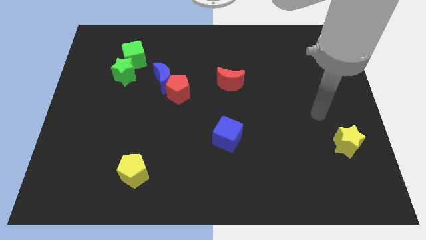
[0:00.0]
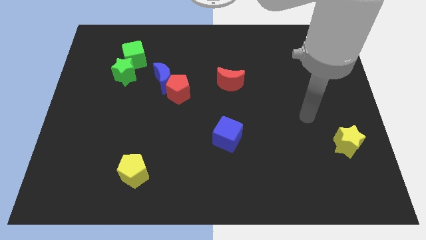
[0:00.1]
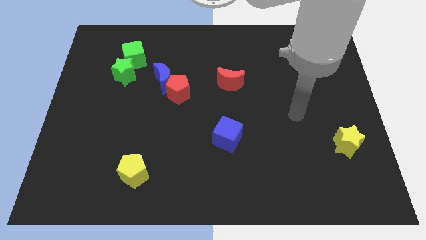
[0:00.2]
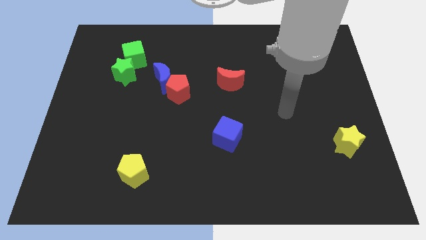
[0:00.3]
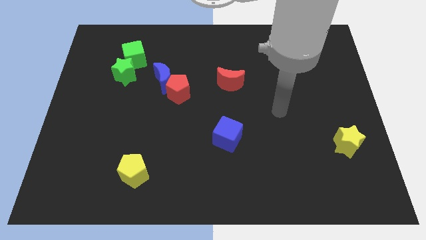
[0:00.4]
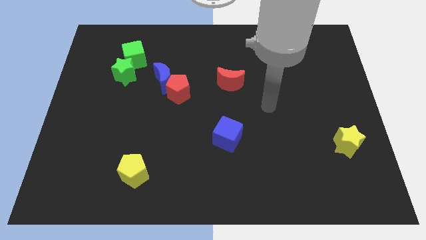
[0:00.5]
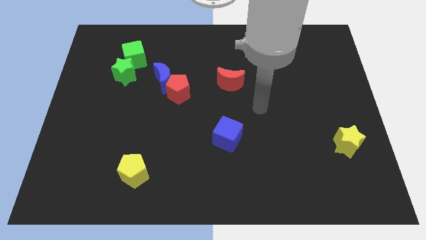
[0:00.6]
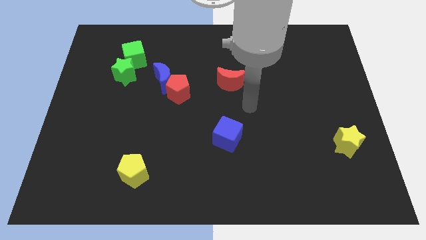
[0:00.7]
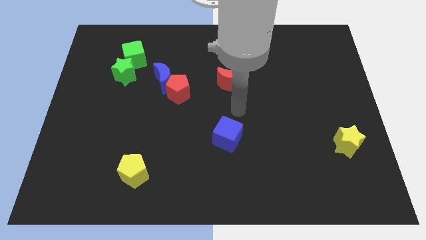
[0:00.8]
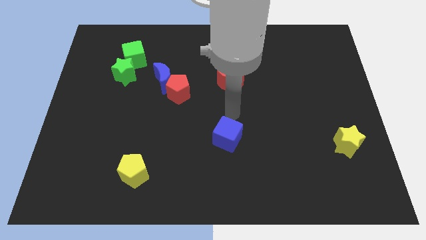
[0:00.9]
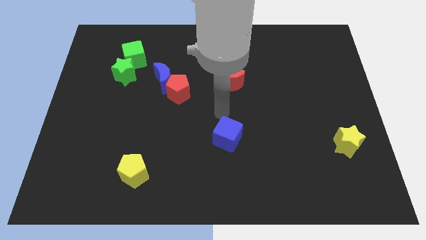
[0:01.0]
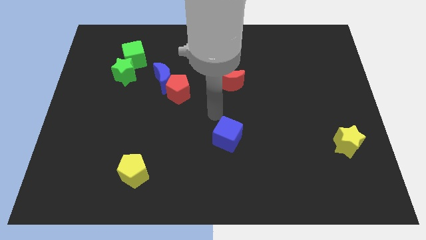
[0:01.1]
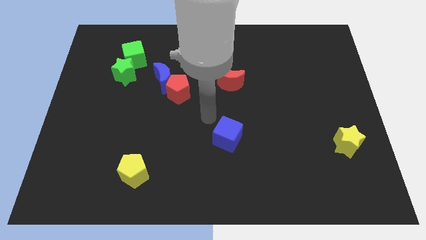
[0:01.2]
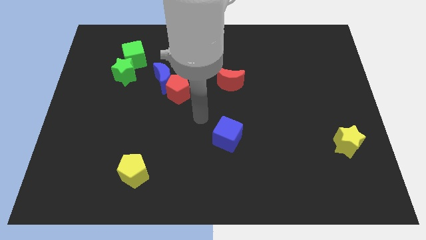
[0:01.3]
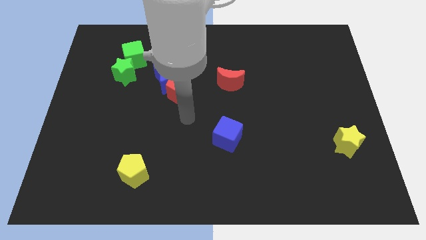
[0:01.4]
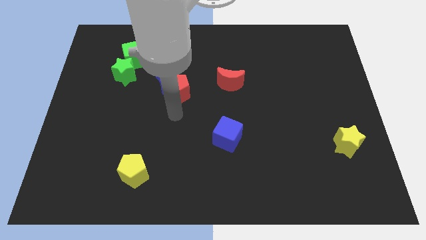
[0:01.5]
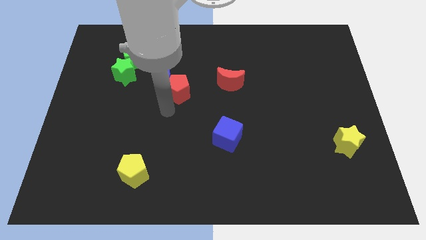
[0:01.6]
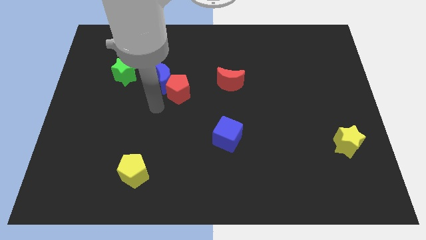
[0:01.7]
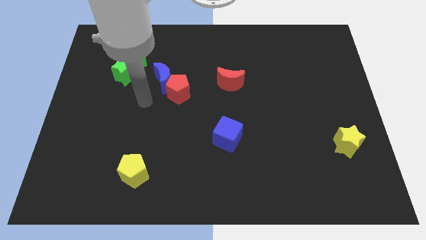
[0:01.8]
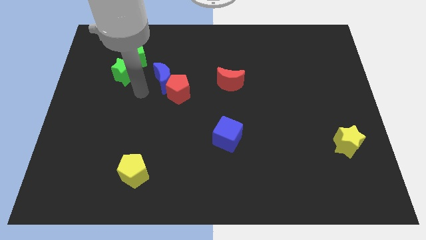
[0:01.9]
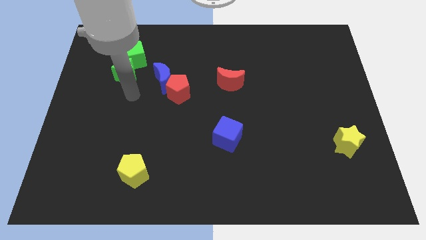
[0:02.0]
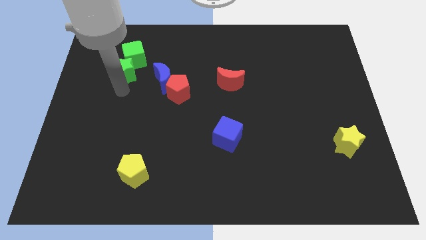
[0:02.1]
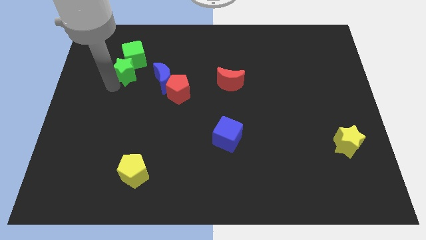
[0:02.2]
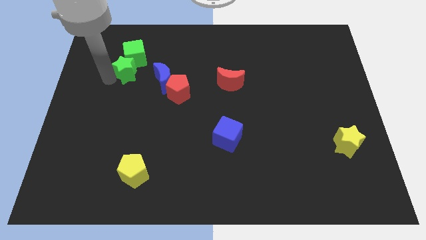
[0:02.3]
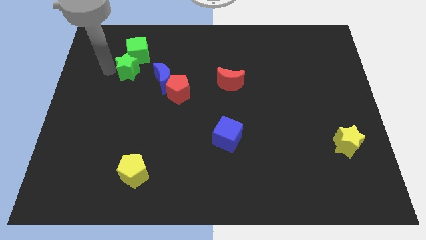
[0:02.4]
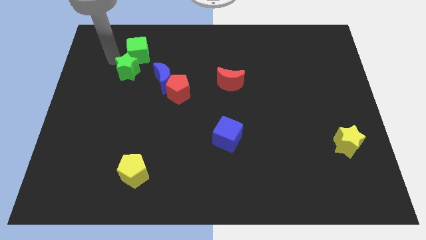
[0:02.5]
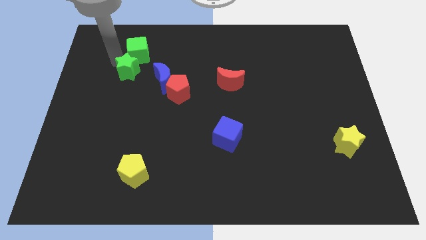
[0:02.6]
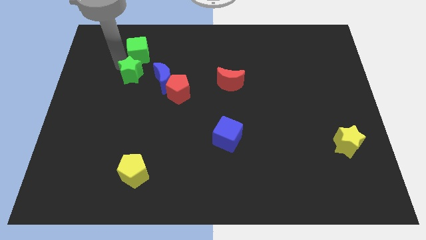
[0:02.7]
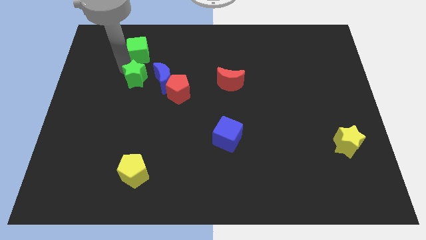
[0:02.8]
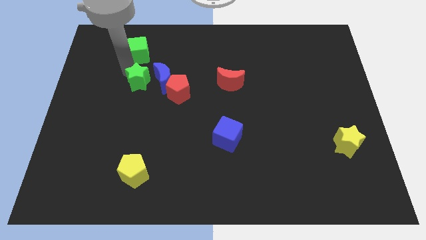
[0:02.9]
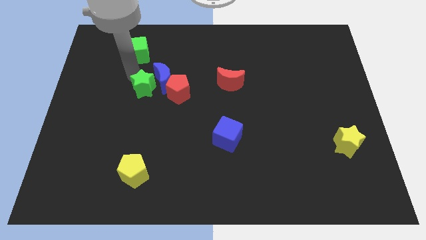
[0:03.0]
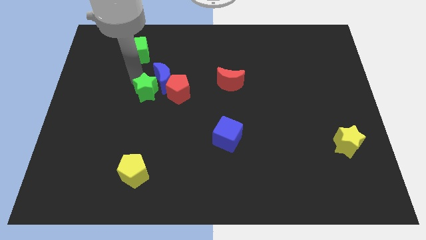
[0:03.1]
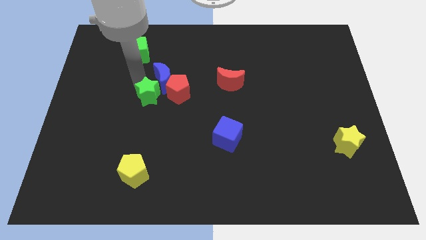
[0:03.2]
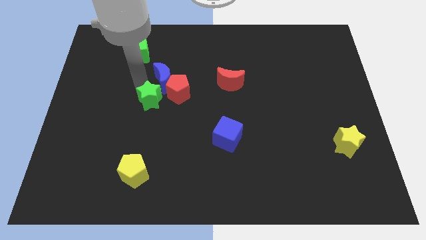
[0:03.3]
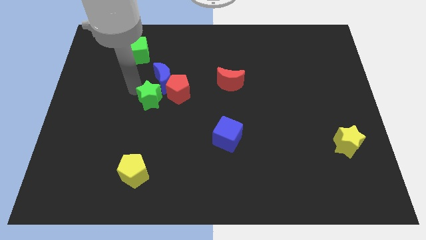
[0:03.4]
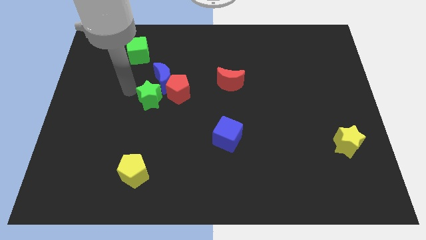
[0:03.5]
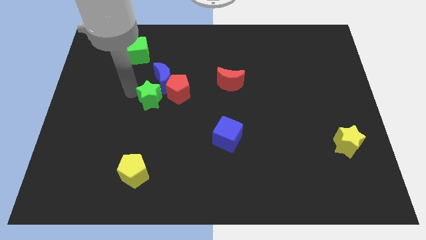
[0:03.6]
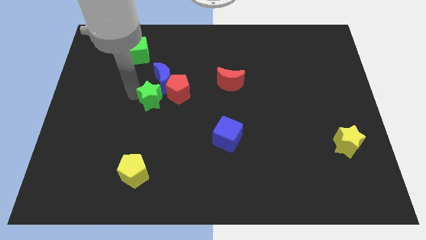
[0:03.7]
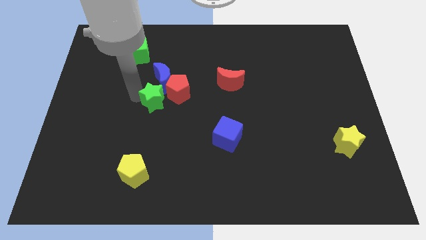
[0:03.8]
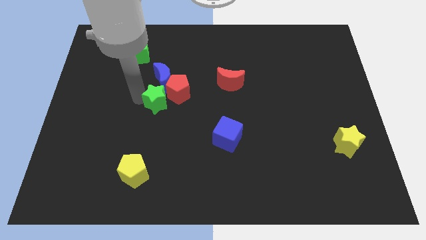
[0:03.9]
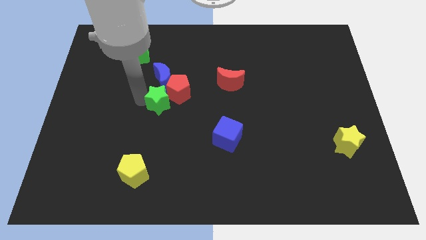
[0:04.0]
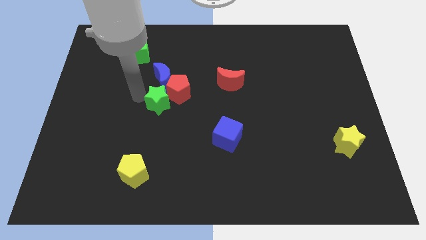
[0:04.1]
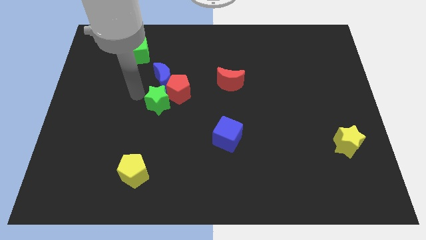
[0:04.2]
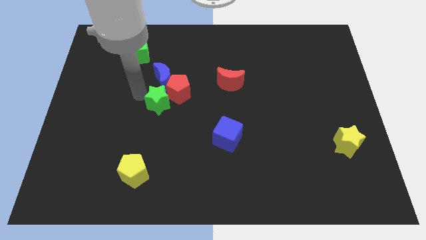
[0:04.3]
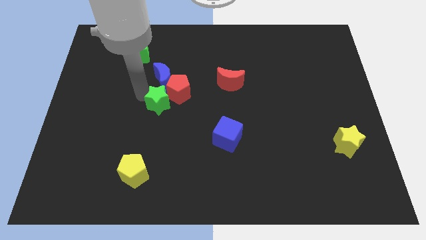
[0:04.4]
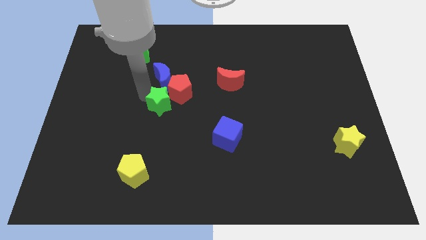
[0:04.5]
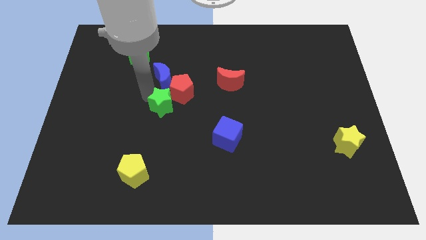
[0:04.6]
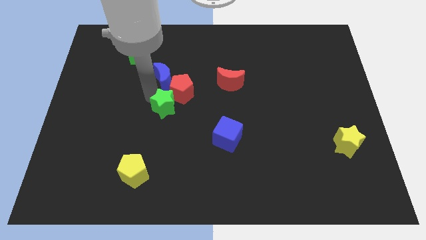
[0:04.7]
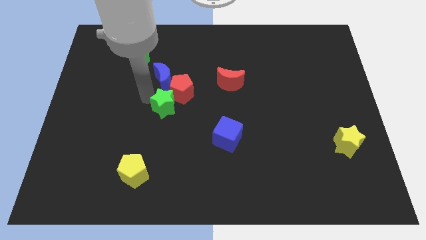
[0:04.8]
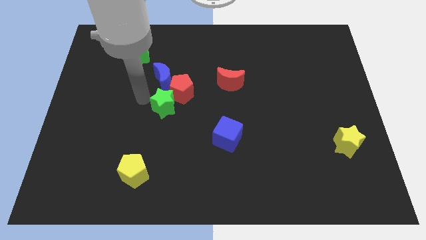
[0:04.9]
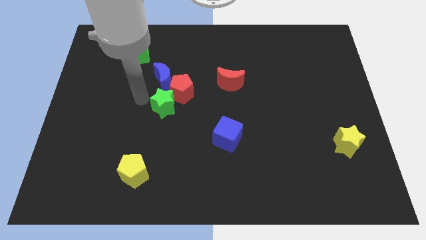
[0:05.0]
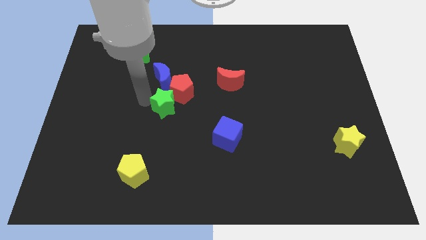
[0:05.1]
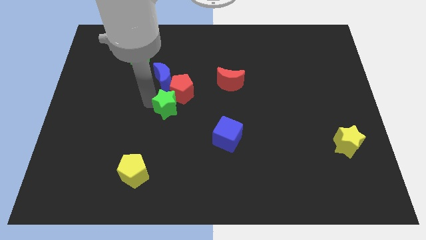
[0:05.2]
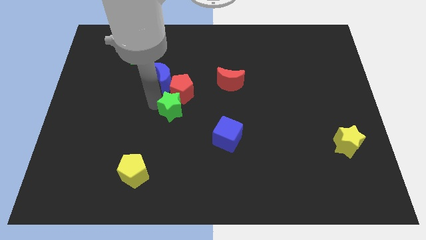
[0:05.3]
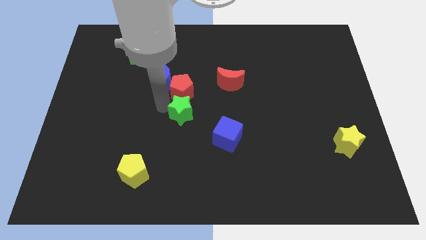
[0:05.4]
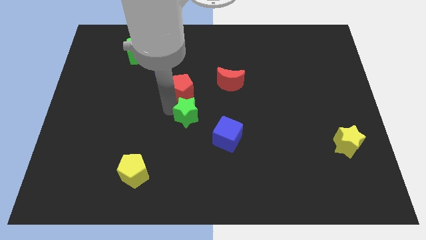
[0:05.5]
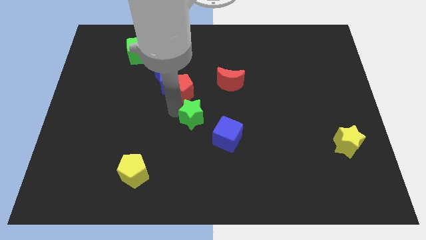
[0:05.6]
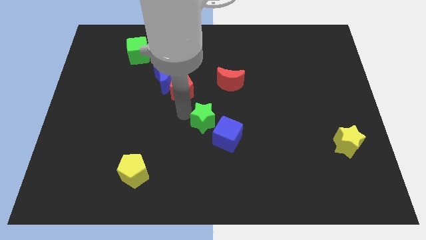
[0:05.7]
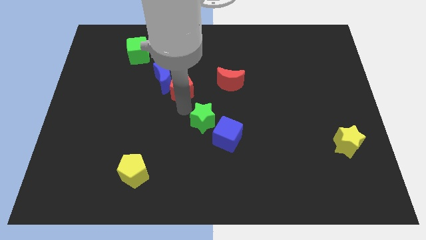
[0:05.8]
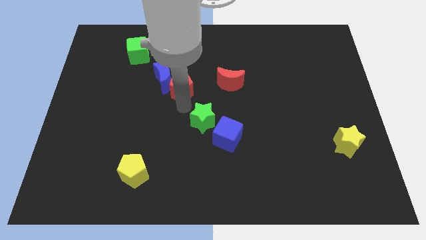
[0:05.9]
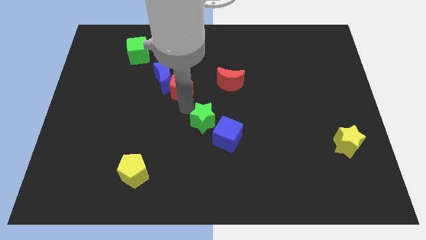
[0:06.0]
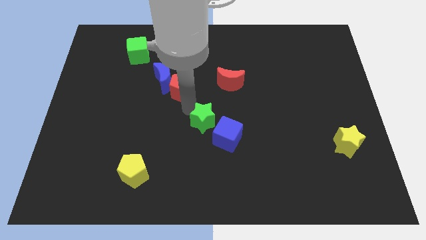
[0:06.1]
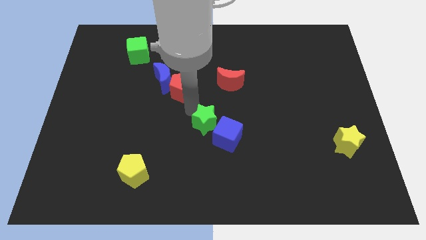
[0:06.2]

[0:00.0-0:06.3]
put the green star next to the blue cube

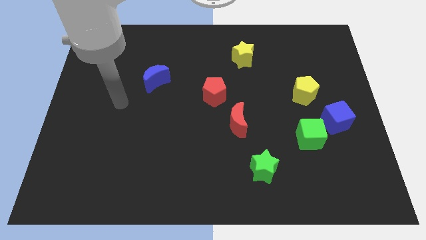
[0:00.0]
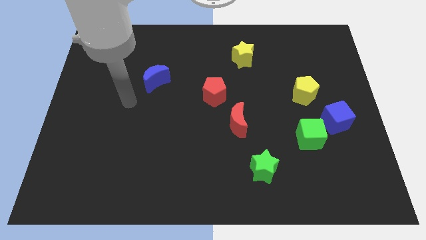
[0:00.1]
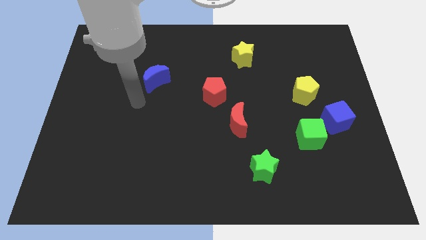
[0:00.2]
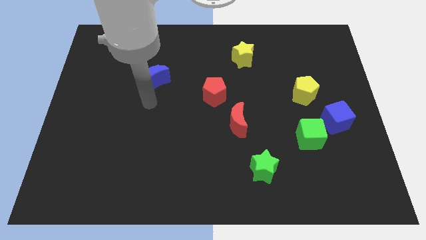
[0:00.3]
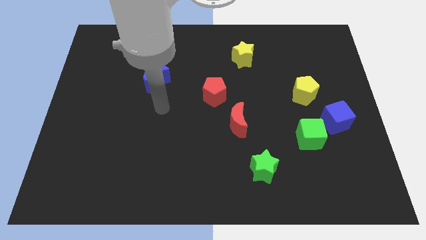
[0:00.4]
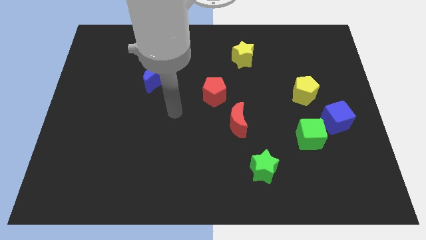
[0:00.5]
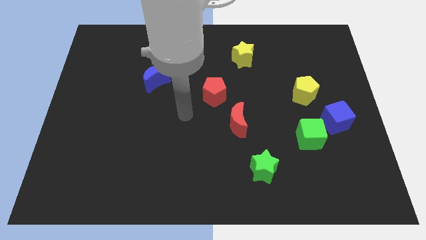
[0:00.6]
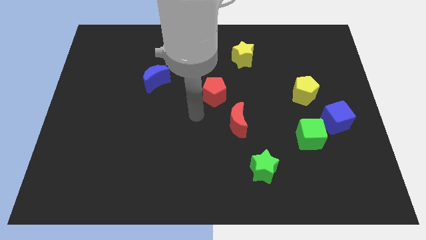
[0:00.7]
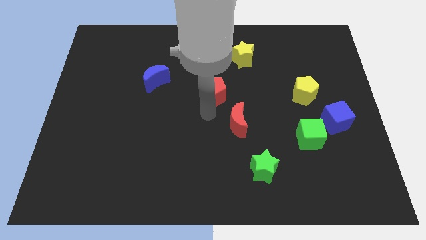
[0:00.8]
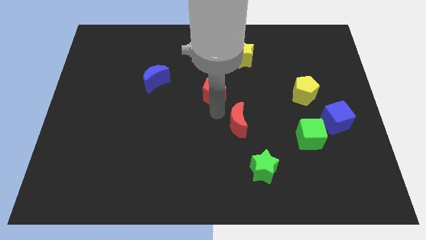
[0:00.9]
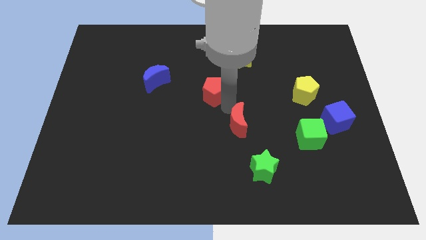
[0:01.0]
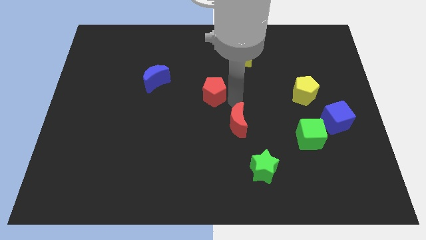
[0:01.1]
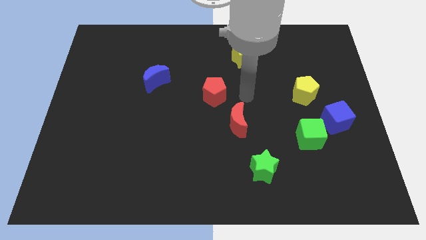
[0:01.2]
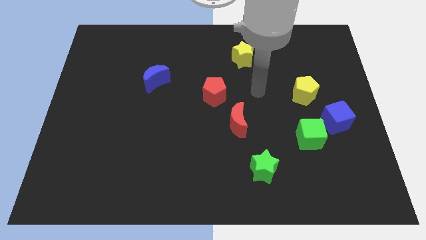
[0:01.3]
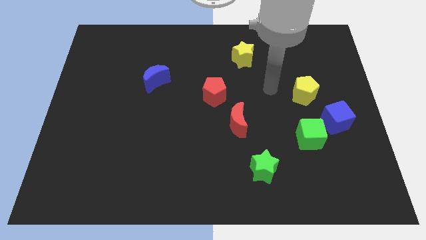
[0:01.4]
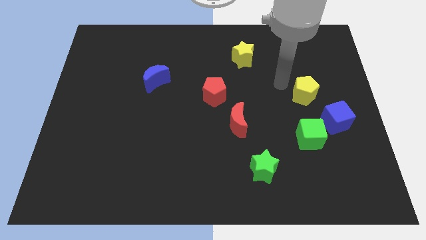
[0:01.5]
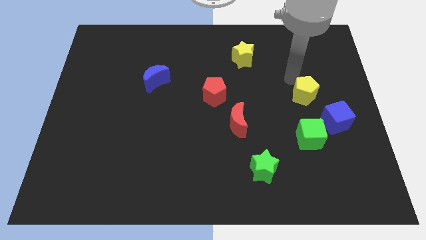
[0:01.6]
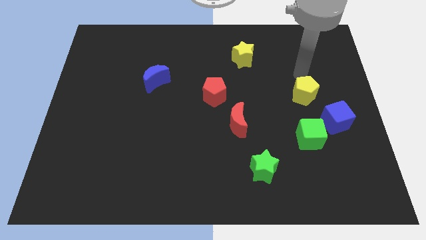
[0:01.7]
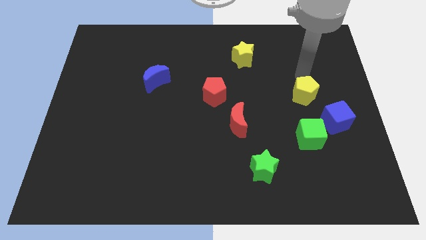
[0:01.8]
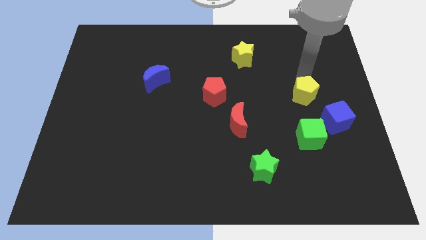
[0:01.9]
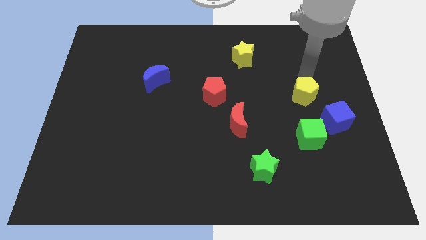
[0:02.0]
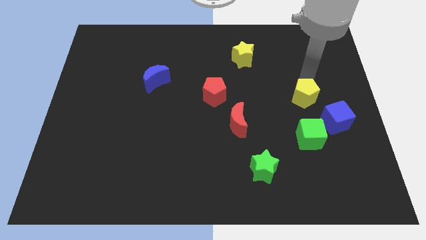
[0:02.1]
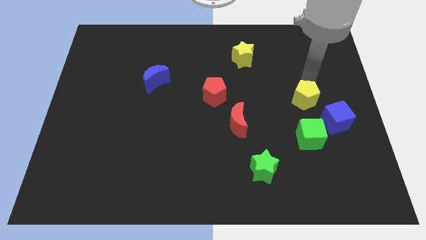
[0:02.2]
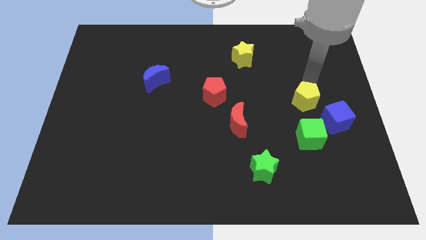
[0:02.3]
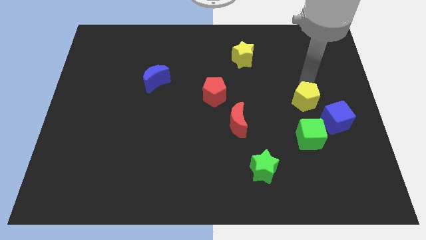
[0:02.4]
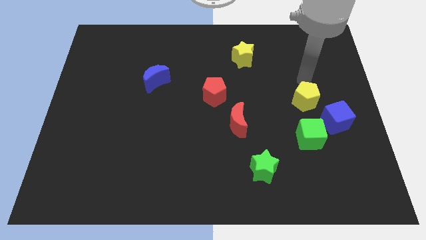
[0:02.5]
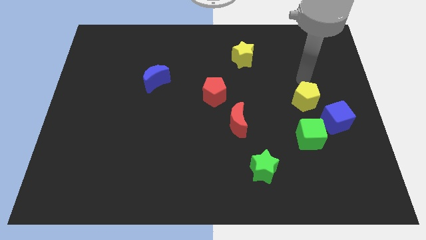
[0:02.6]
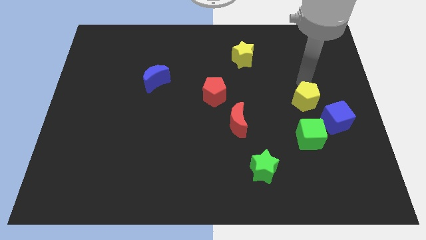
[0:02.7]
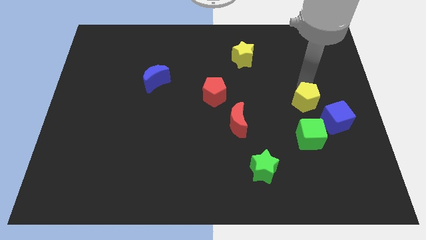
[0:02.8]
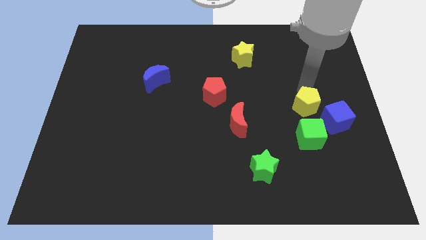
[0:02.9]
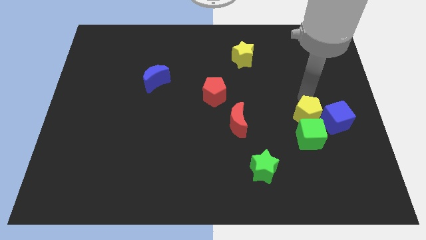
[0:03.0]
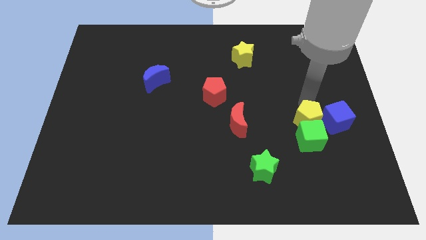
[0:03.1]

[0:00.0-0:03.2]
slide the yellow pentagon close to the green cube
